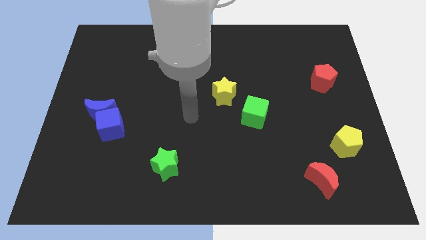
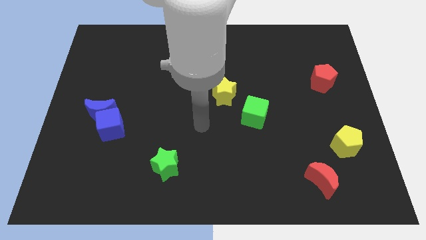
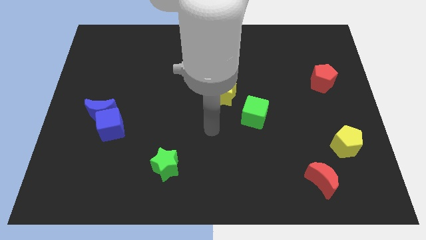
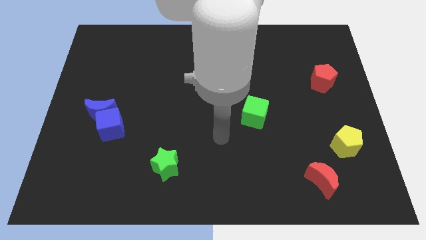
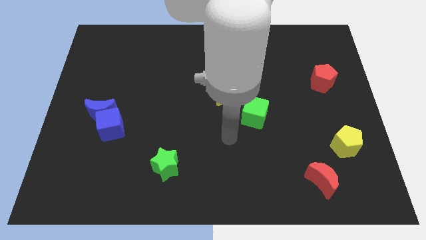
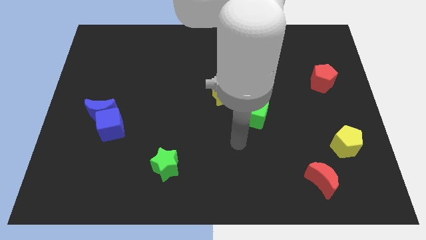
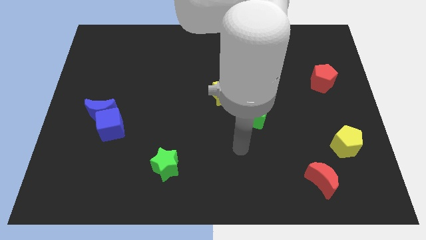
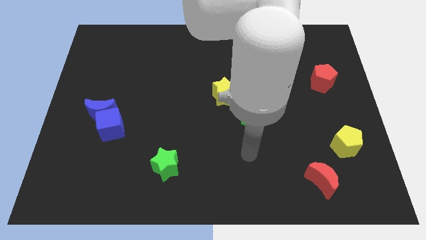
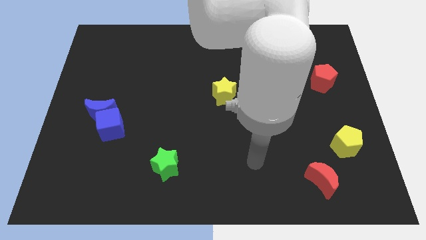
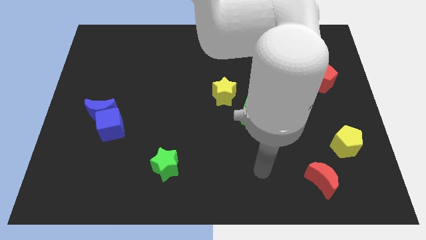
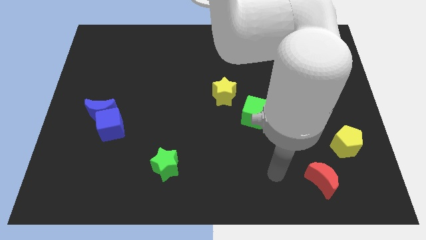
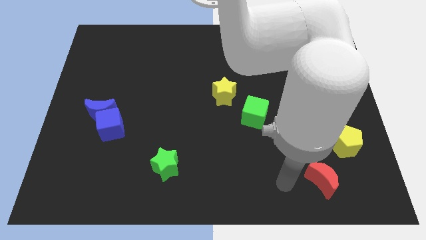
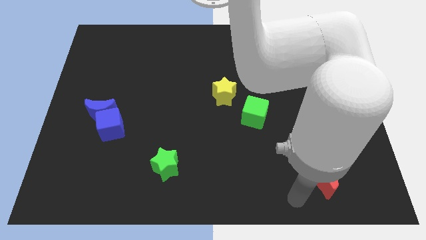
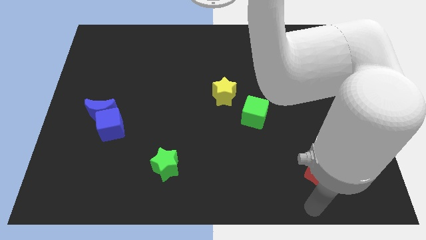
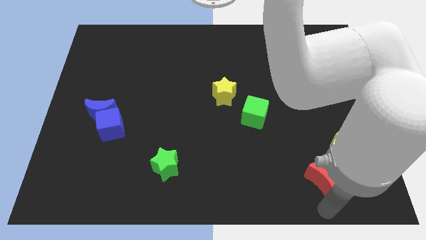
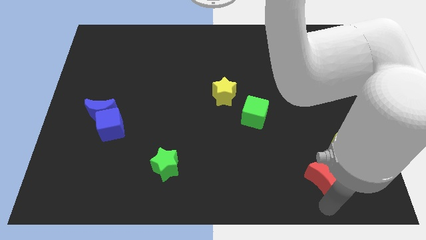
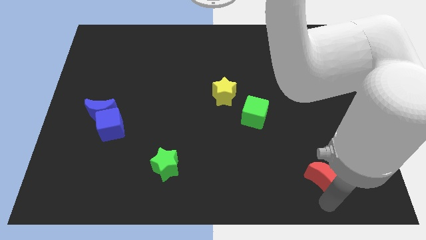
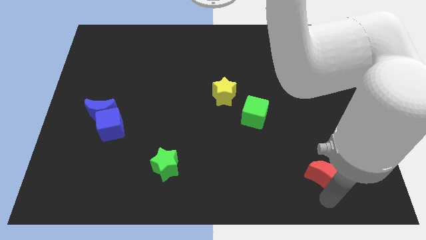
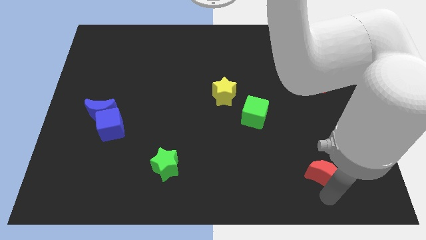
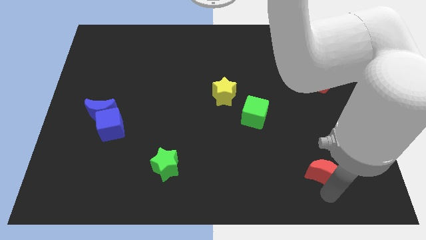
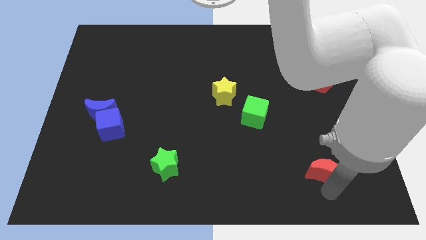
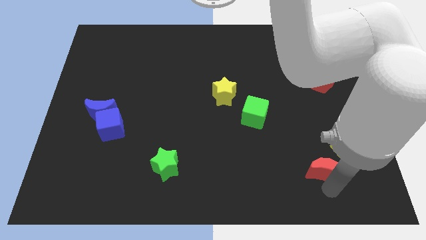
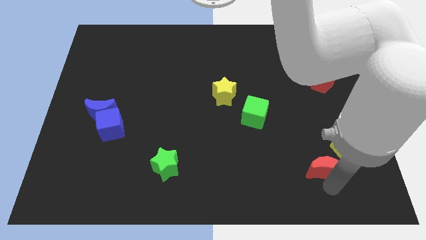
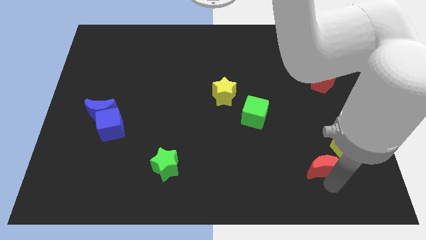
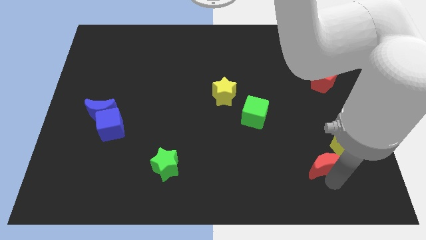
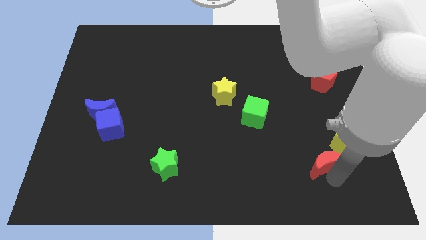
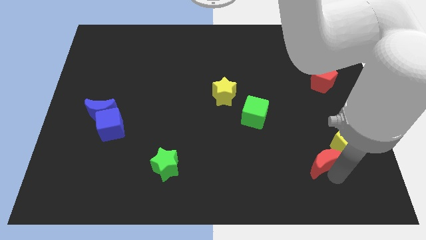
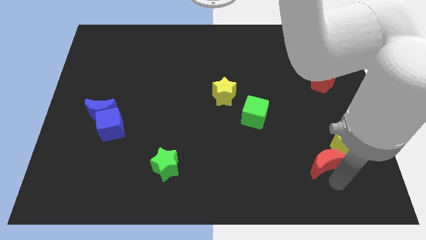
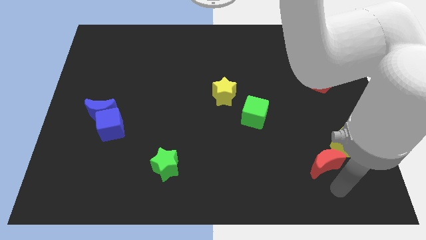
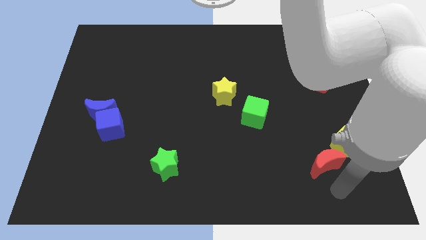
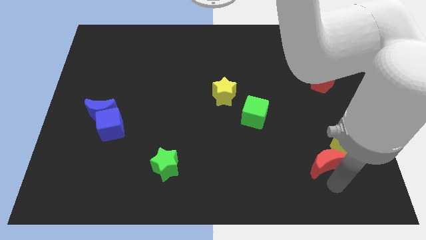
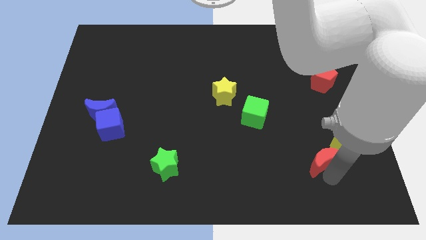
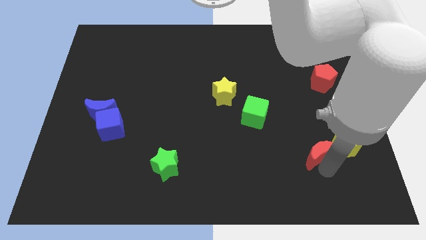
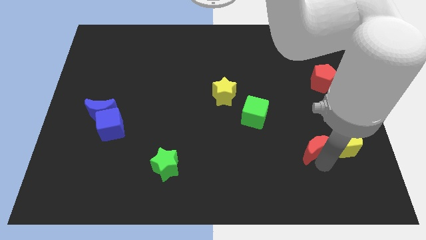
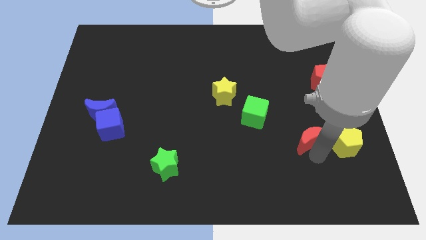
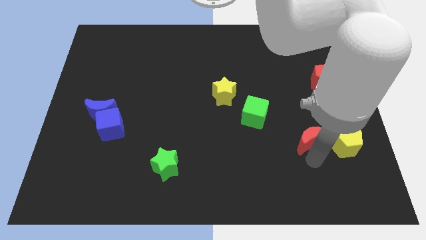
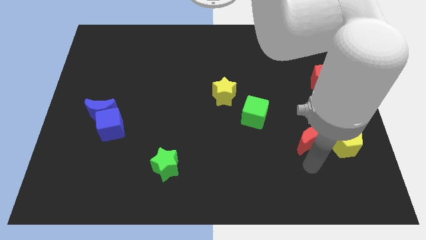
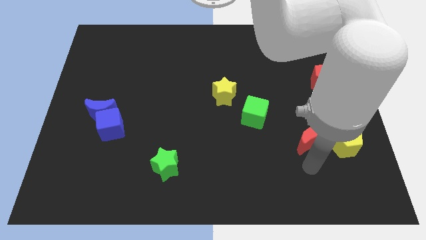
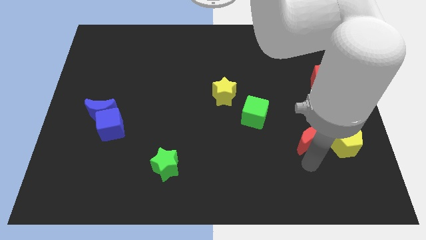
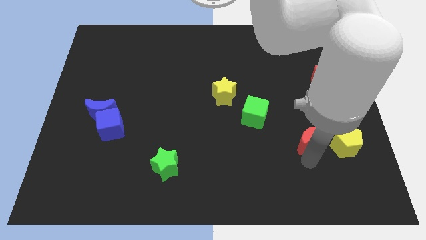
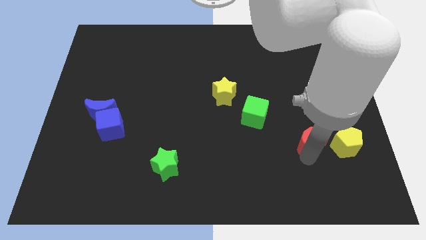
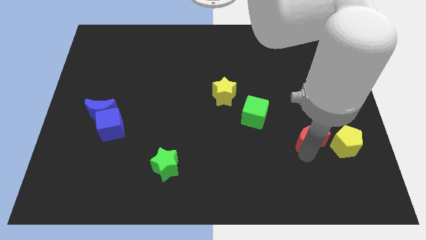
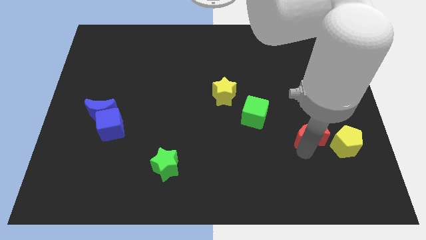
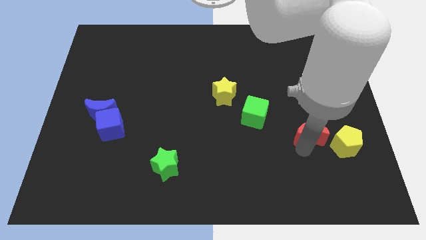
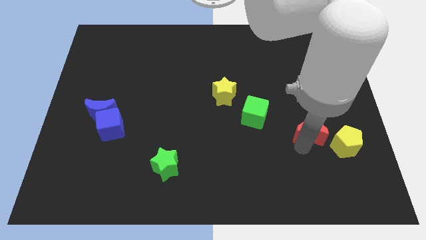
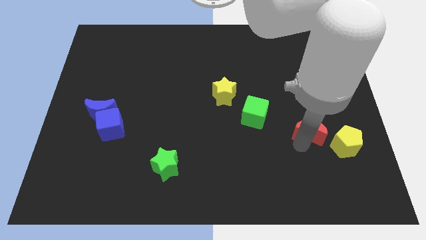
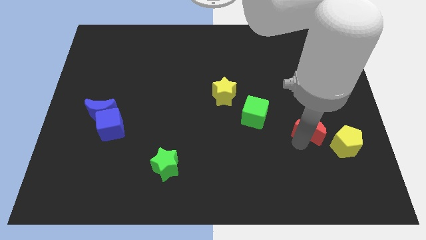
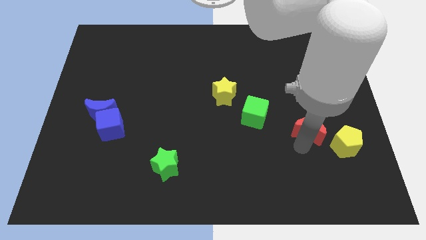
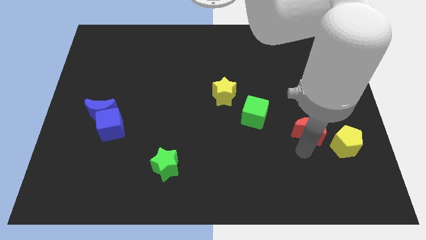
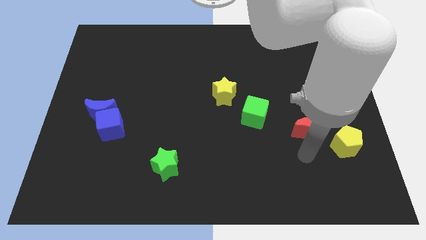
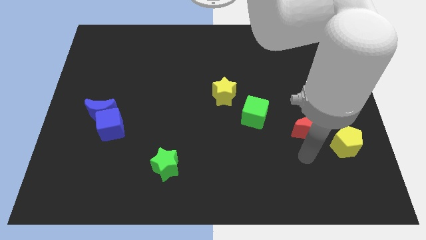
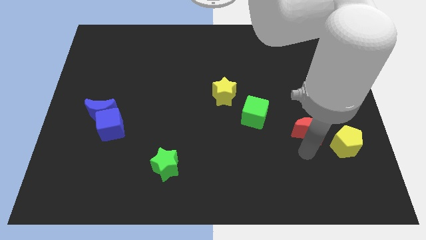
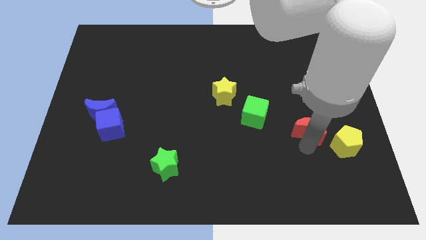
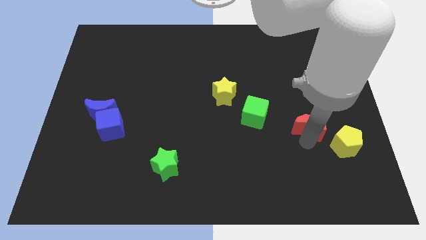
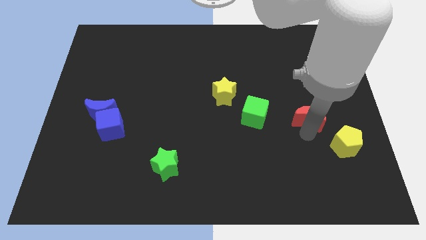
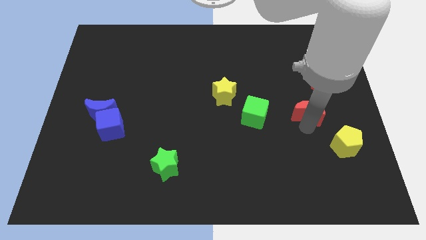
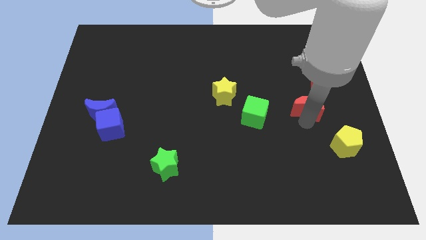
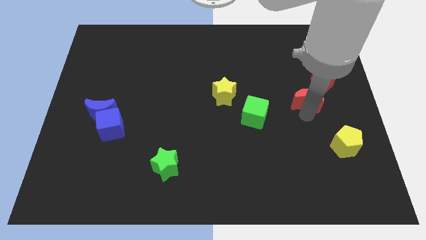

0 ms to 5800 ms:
move the red moon up

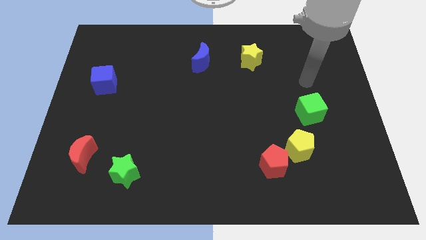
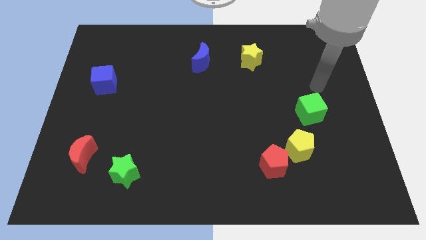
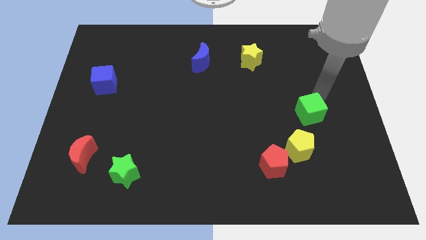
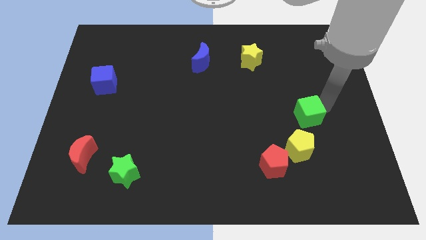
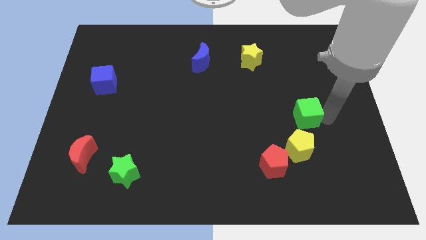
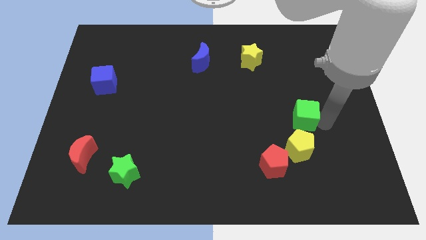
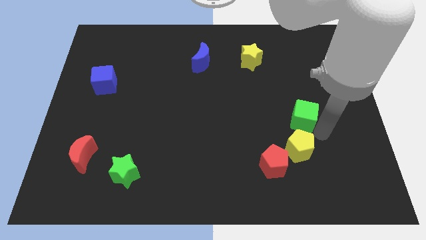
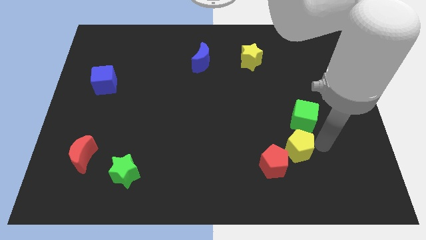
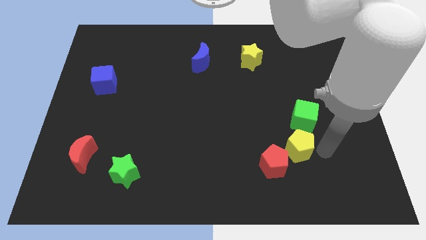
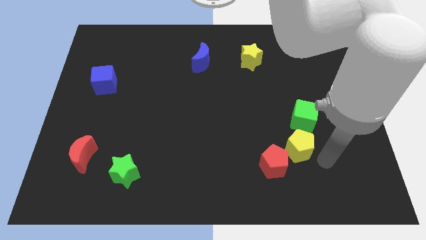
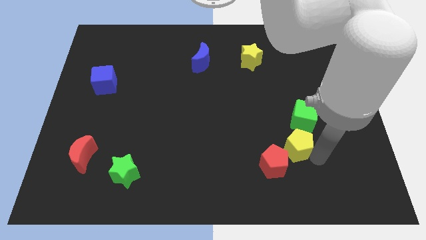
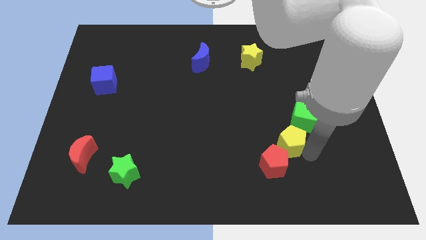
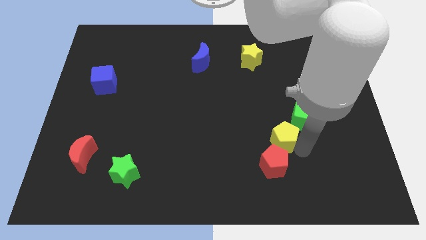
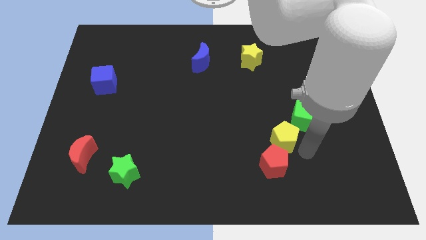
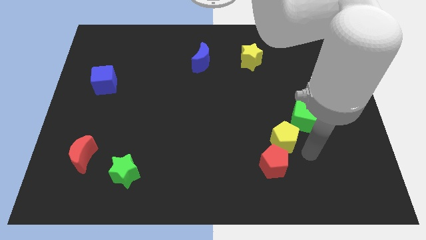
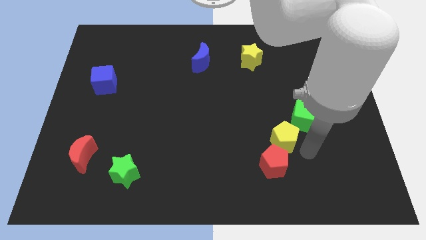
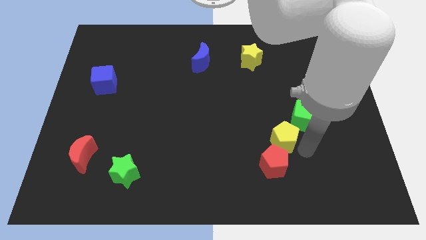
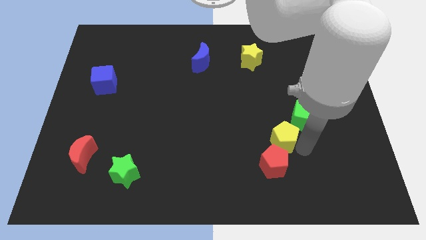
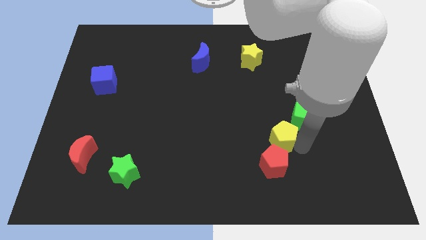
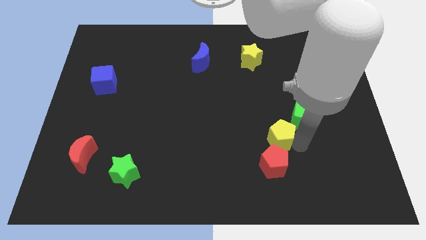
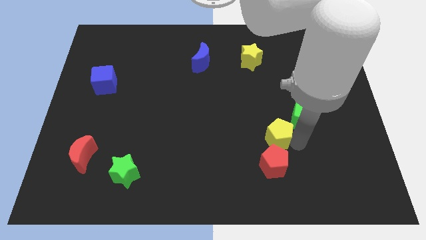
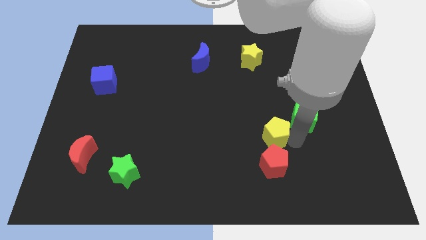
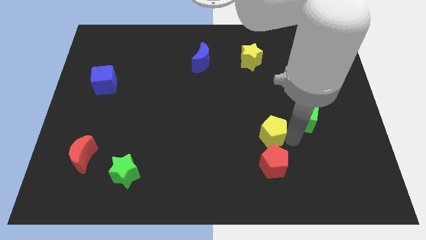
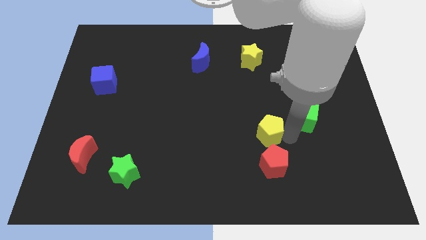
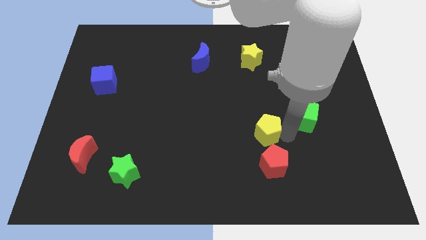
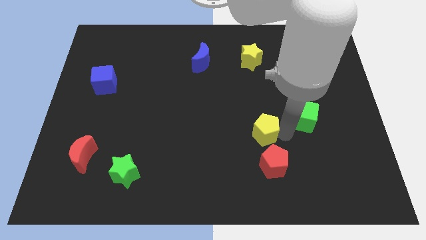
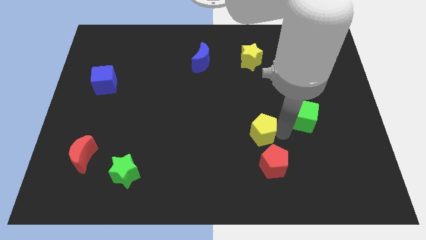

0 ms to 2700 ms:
move the yellow pentagon left slightly
